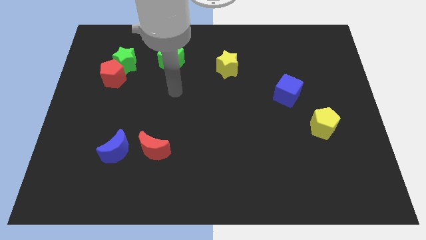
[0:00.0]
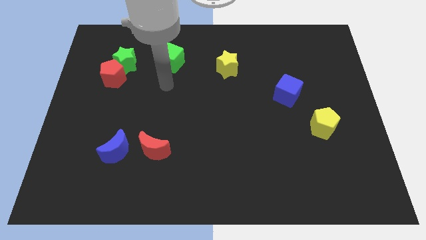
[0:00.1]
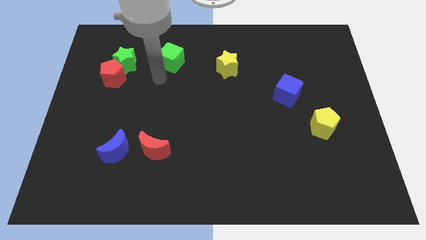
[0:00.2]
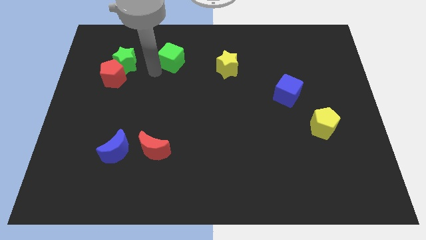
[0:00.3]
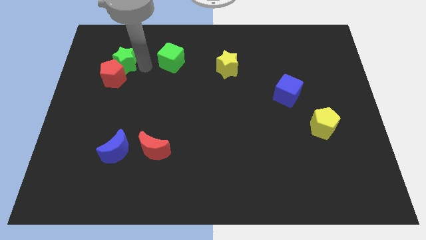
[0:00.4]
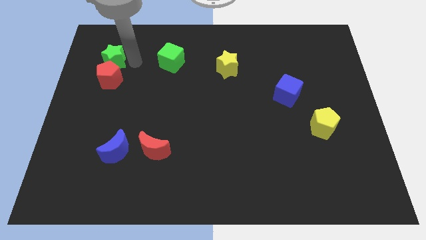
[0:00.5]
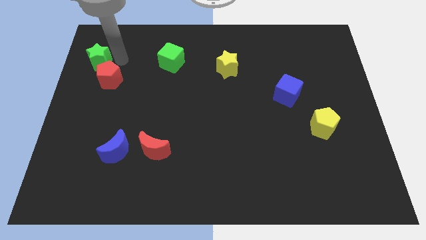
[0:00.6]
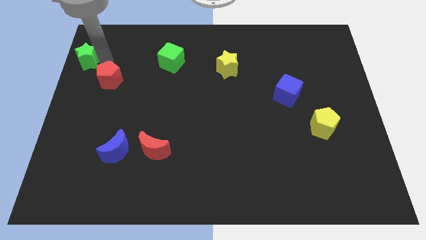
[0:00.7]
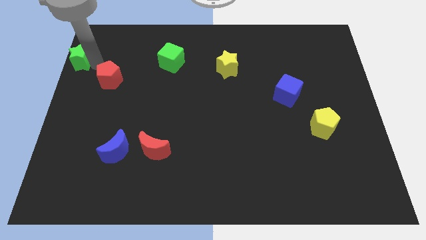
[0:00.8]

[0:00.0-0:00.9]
pull the red pentagon apart from the green star

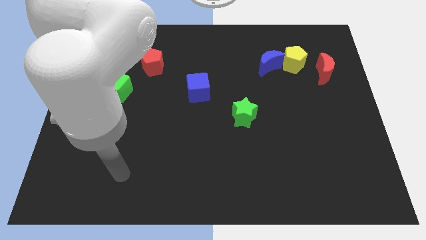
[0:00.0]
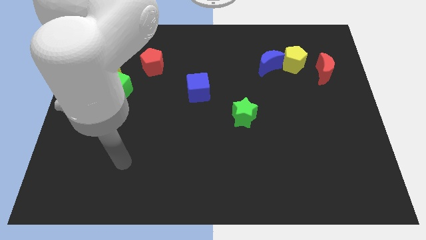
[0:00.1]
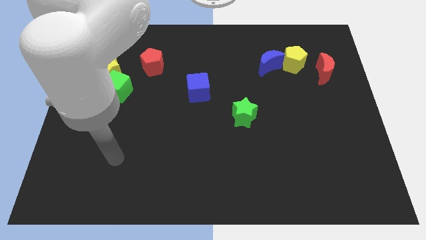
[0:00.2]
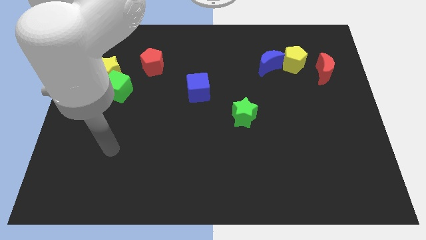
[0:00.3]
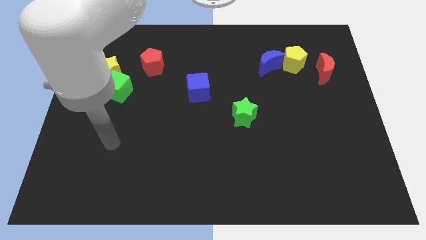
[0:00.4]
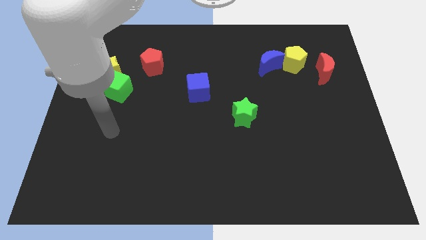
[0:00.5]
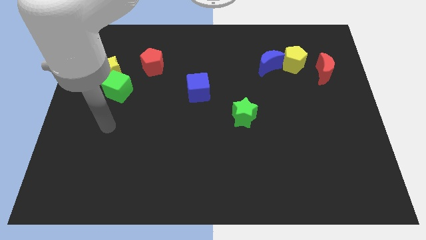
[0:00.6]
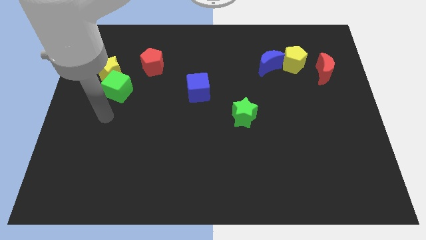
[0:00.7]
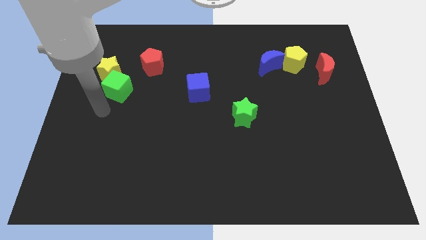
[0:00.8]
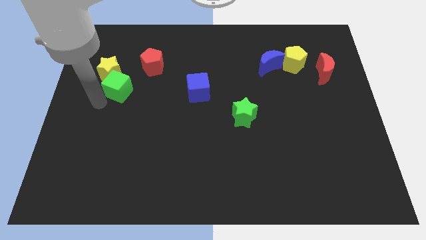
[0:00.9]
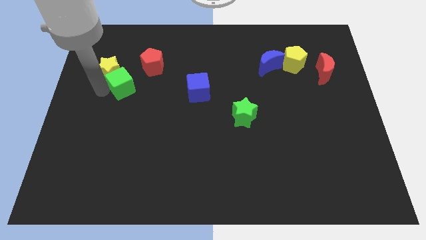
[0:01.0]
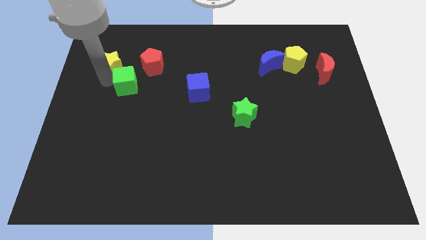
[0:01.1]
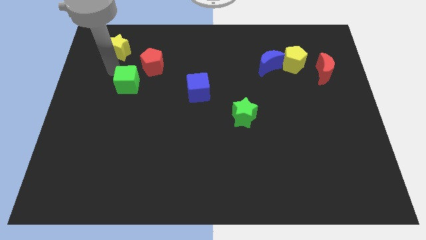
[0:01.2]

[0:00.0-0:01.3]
separate the green cube from the yellow star

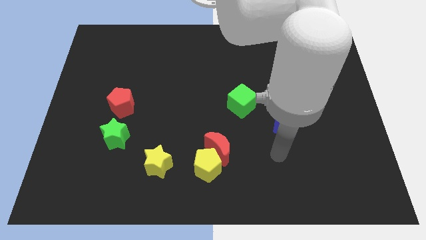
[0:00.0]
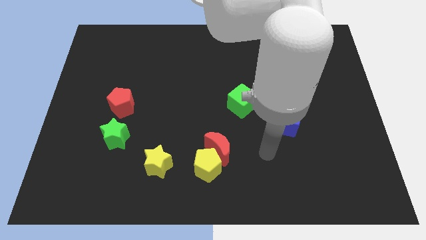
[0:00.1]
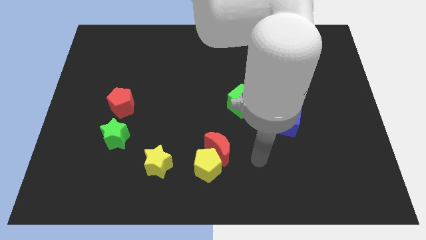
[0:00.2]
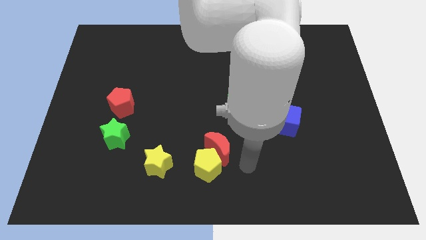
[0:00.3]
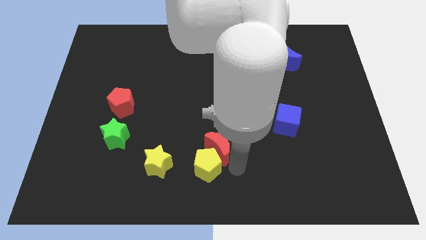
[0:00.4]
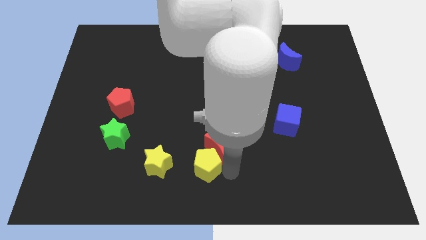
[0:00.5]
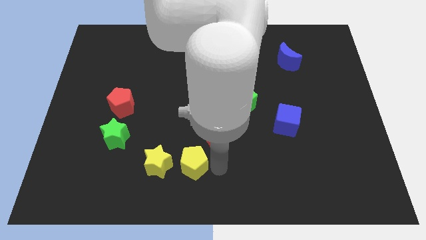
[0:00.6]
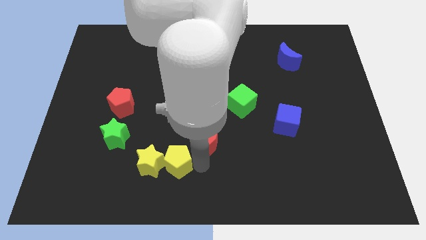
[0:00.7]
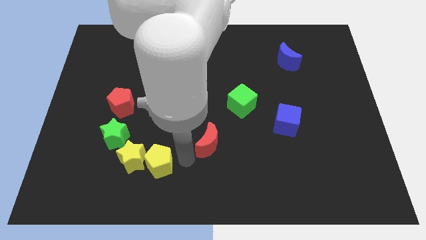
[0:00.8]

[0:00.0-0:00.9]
separate the red moon from the yellow pentagon

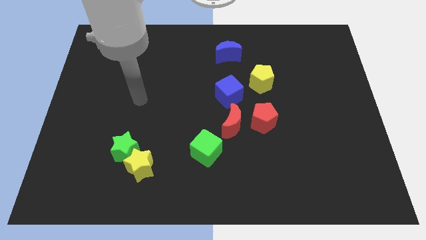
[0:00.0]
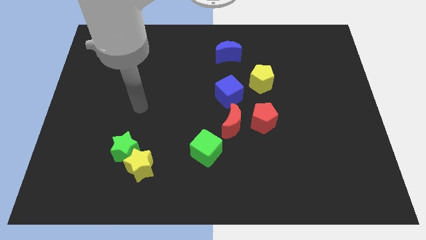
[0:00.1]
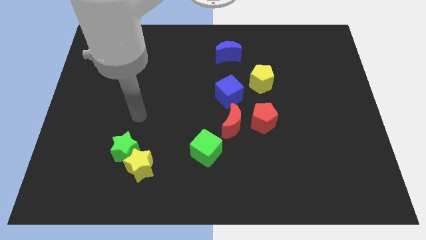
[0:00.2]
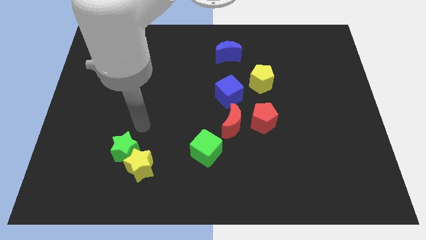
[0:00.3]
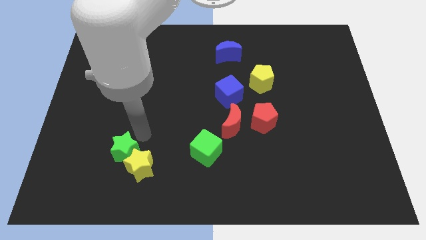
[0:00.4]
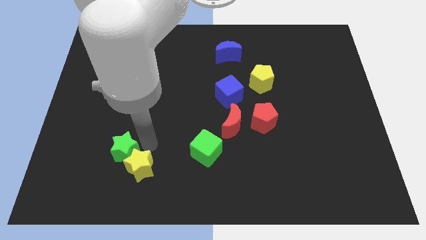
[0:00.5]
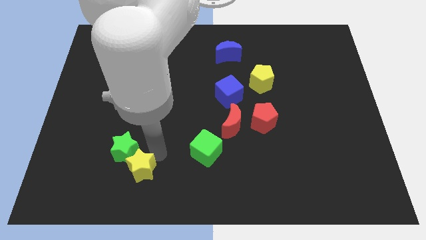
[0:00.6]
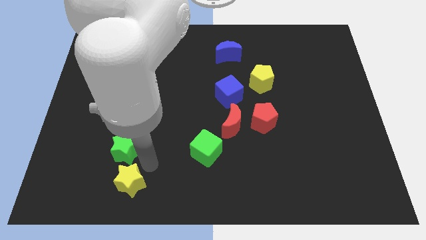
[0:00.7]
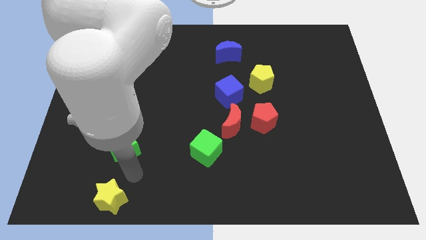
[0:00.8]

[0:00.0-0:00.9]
separate the green star from the yellow star

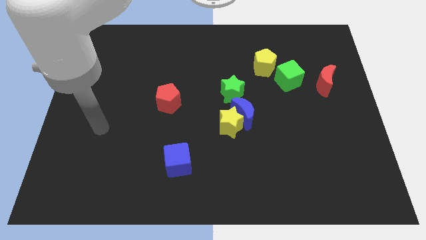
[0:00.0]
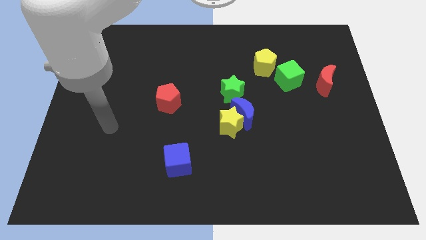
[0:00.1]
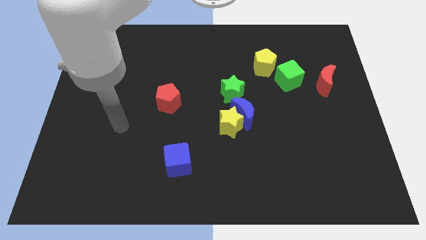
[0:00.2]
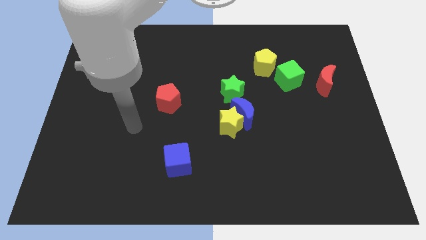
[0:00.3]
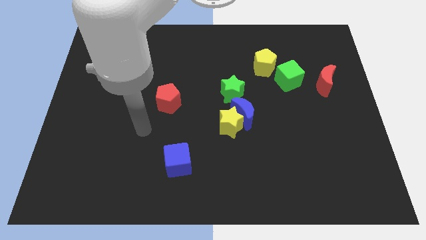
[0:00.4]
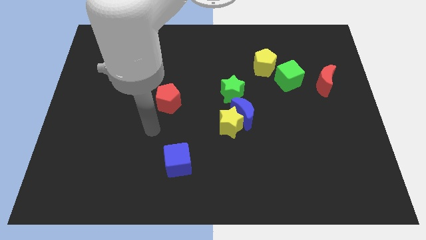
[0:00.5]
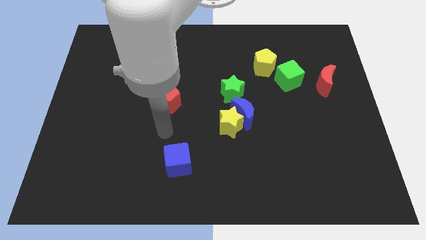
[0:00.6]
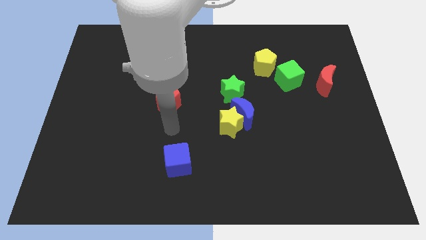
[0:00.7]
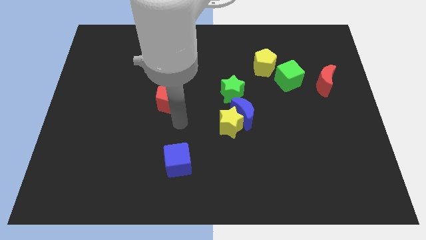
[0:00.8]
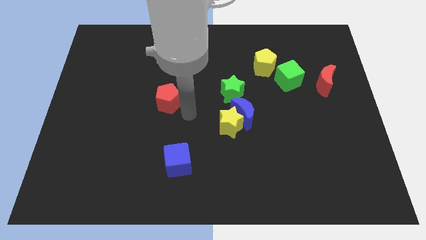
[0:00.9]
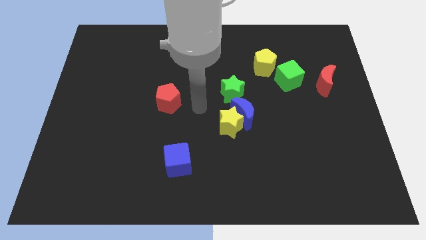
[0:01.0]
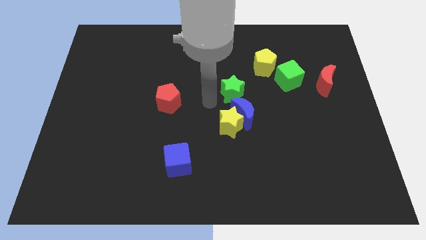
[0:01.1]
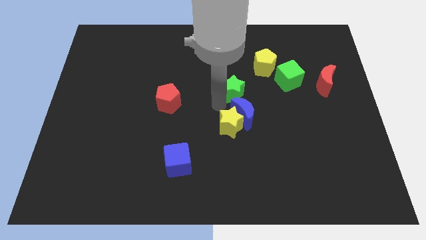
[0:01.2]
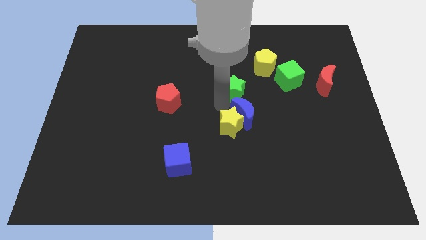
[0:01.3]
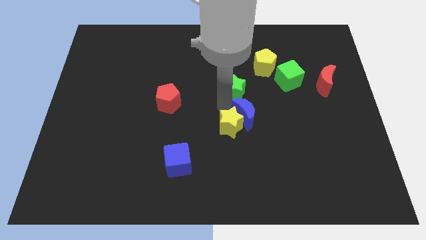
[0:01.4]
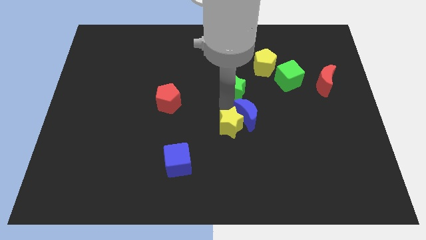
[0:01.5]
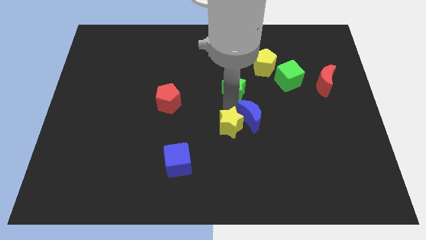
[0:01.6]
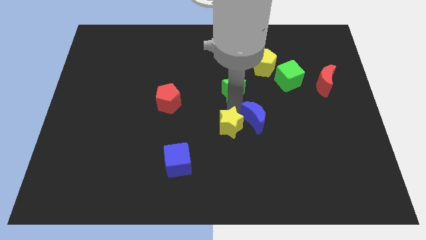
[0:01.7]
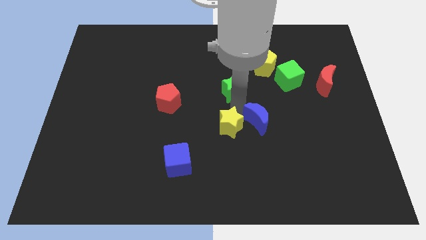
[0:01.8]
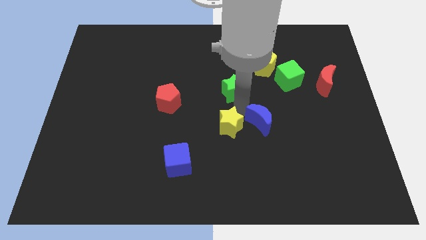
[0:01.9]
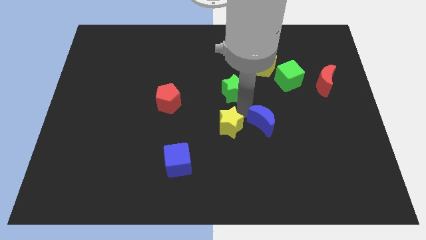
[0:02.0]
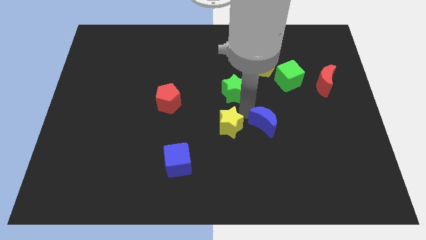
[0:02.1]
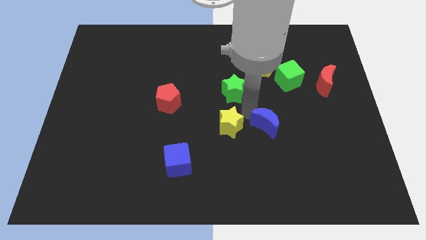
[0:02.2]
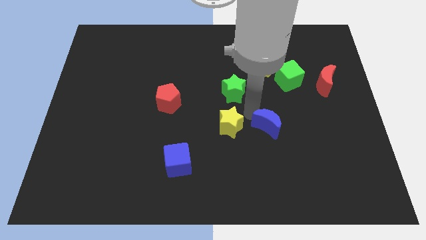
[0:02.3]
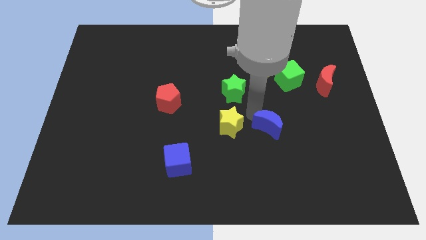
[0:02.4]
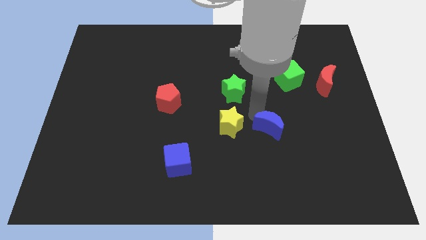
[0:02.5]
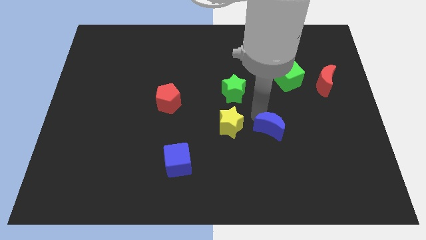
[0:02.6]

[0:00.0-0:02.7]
pull the blue moon apart from the yellow star and green star

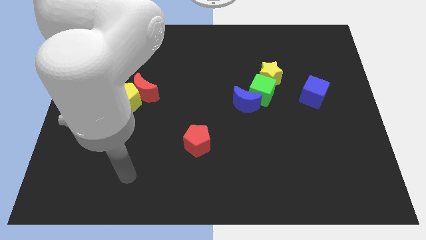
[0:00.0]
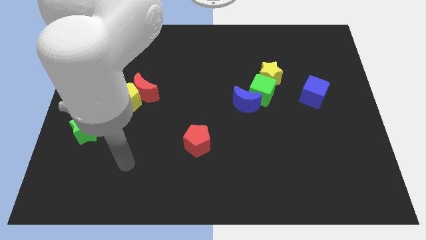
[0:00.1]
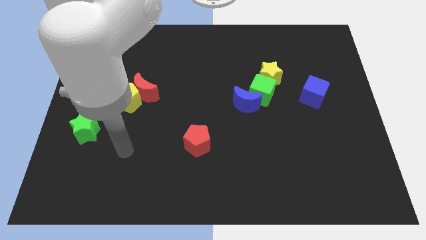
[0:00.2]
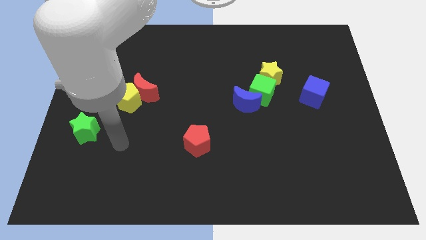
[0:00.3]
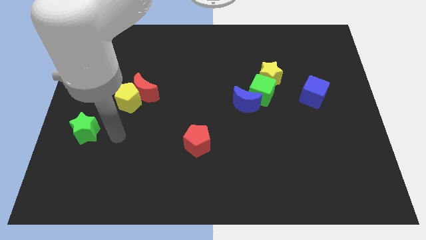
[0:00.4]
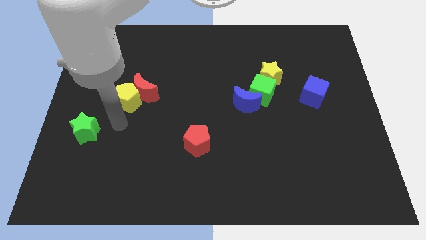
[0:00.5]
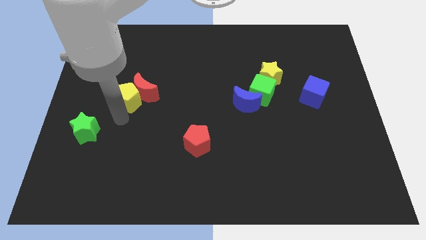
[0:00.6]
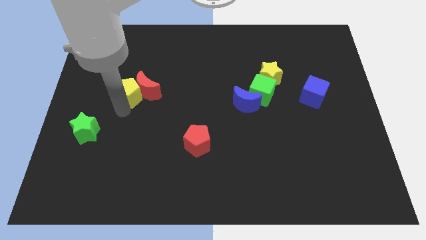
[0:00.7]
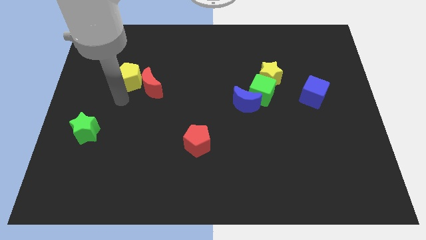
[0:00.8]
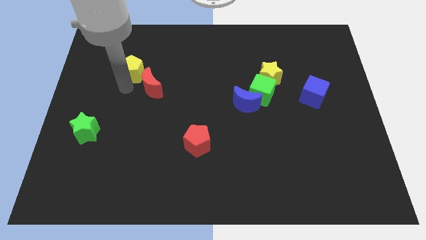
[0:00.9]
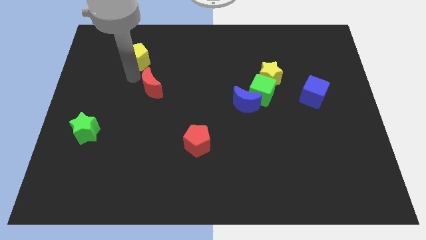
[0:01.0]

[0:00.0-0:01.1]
move the red moon away from the yellow pentagon

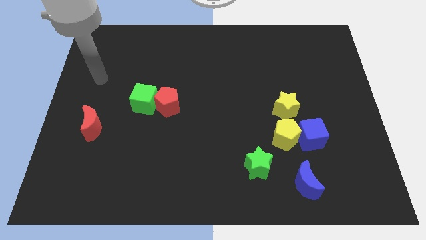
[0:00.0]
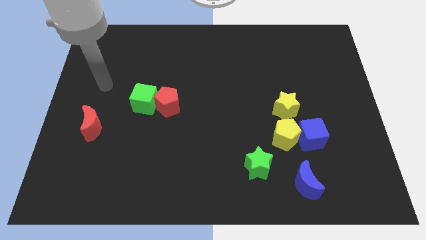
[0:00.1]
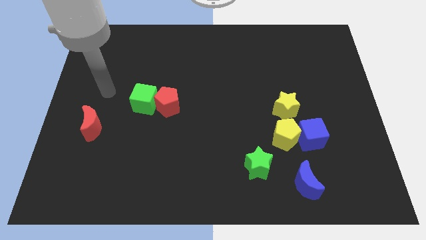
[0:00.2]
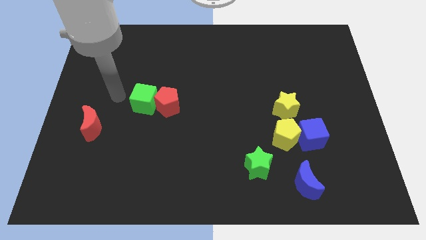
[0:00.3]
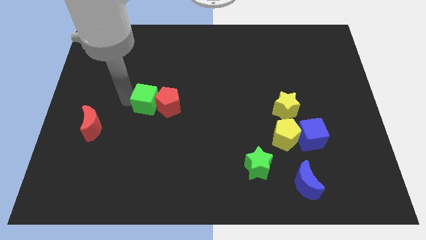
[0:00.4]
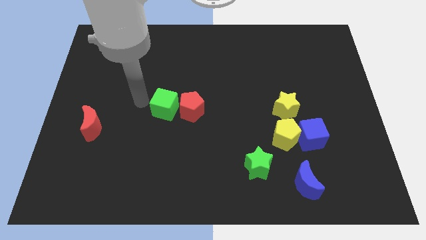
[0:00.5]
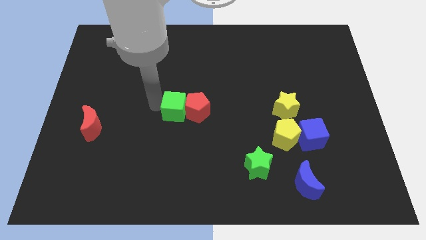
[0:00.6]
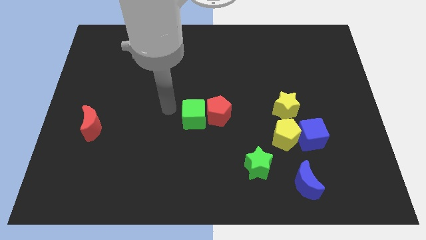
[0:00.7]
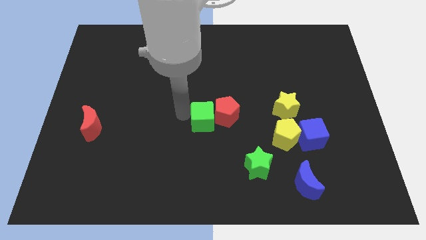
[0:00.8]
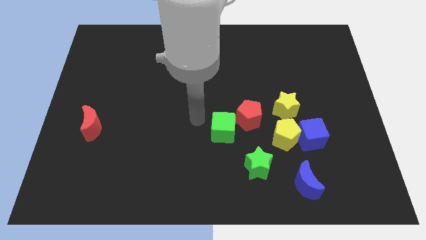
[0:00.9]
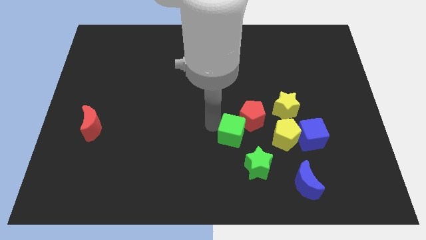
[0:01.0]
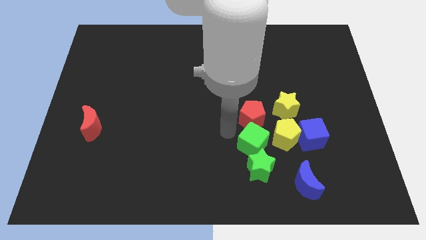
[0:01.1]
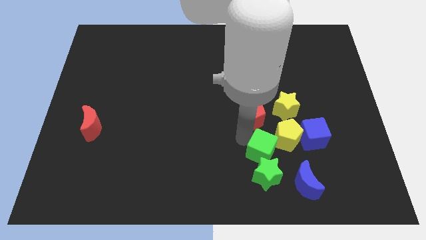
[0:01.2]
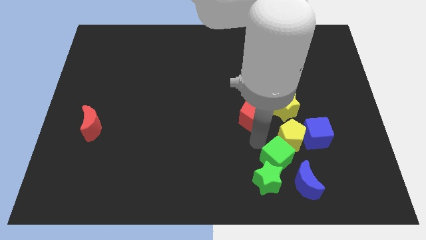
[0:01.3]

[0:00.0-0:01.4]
pull the red pentagon apart from the green cube
